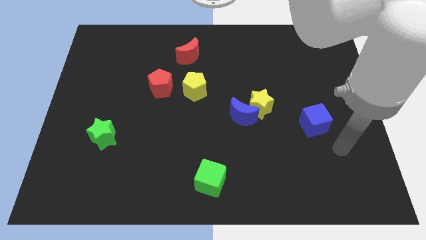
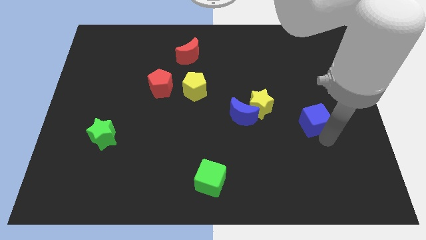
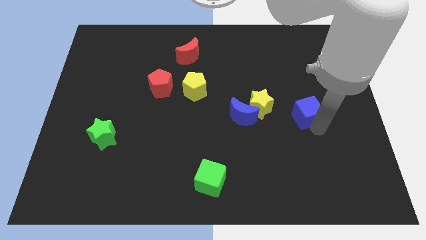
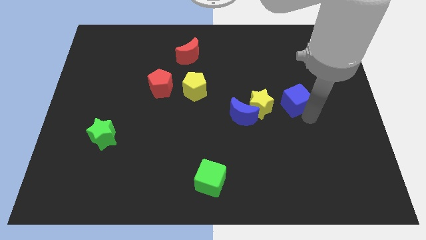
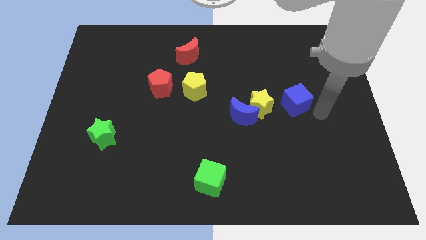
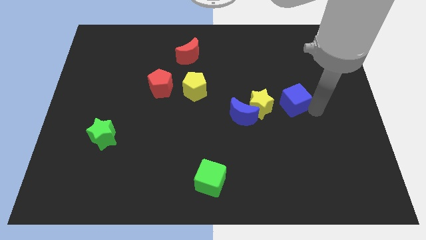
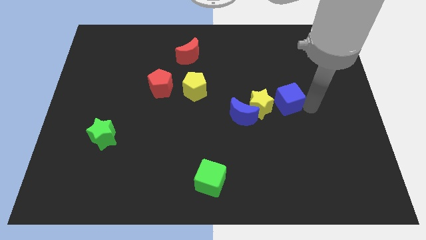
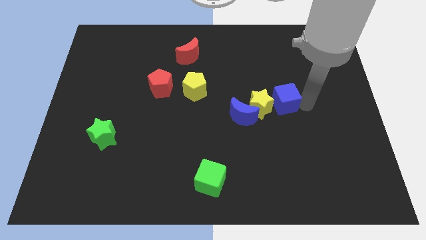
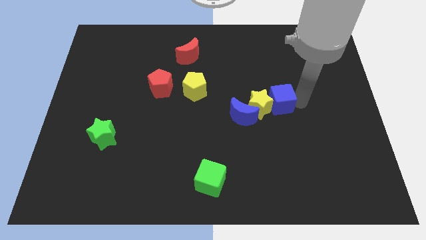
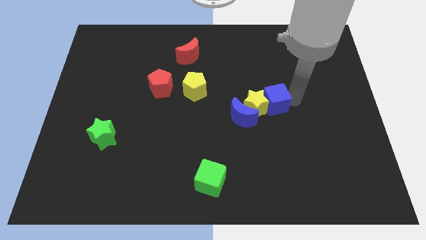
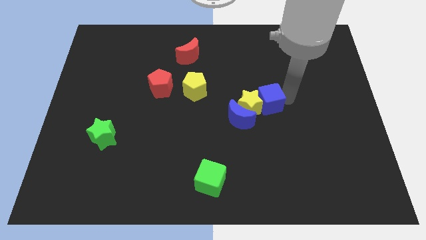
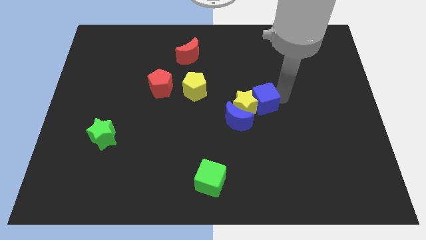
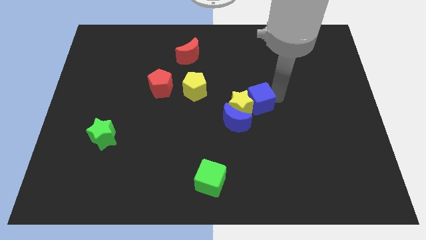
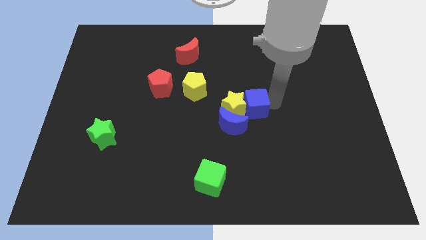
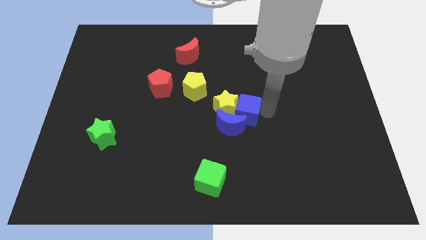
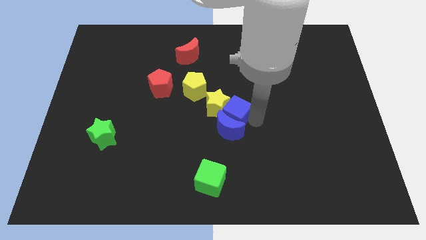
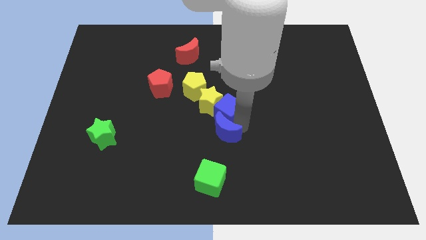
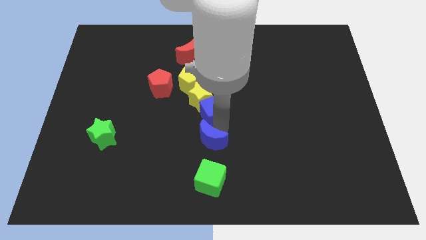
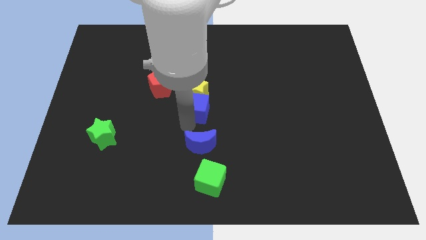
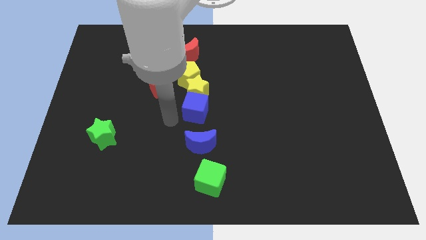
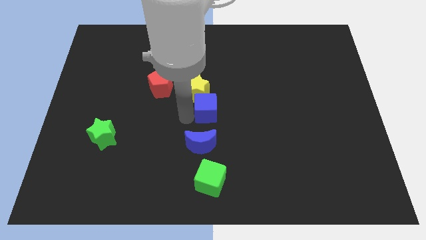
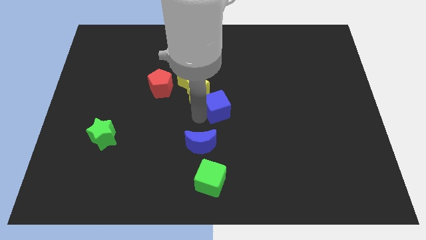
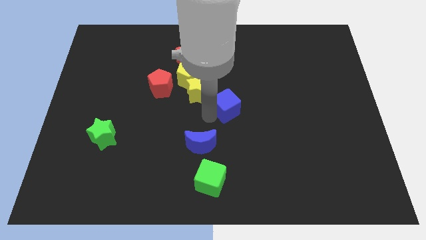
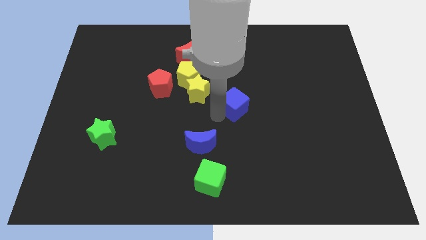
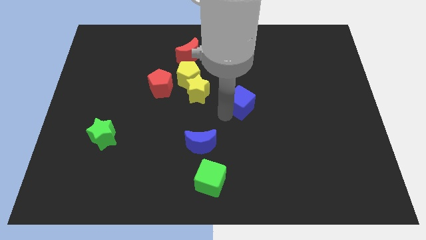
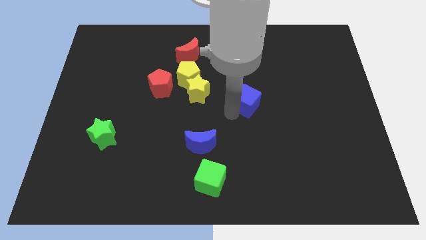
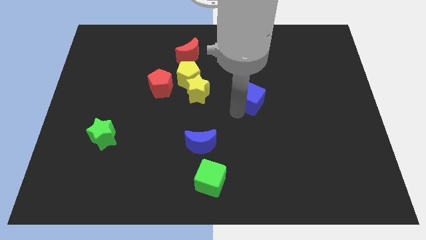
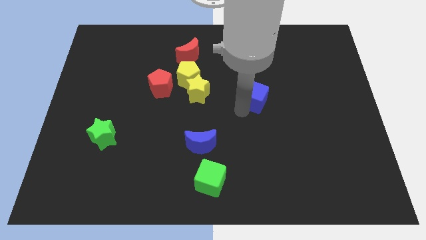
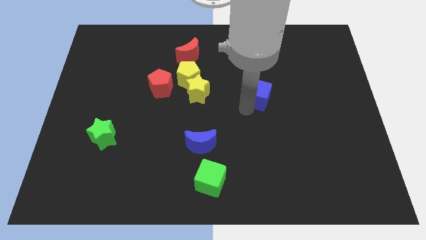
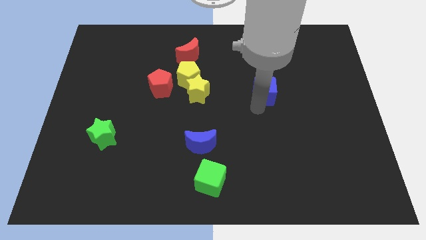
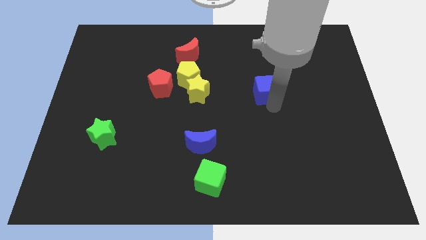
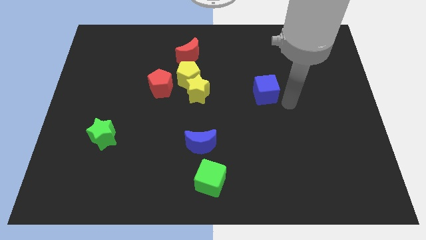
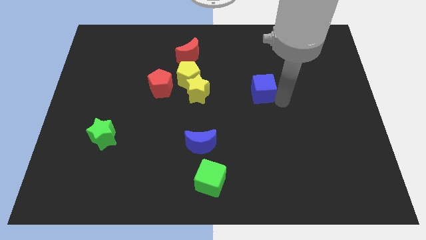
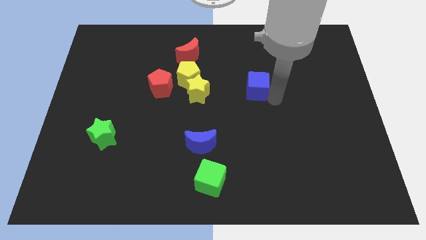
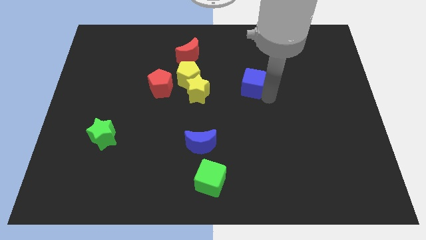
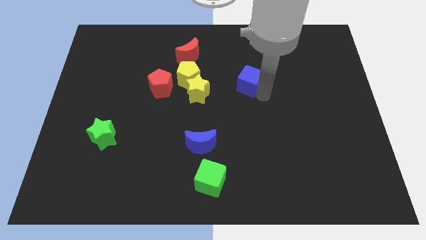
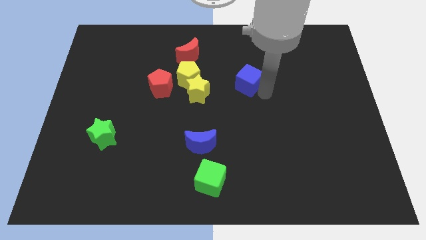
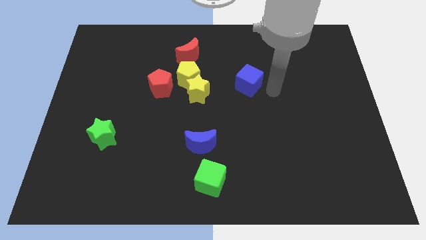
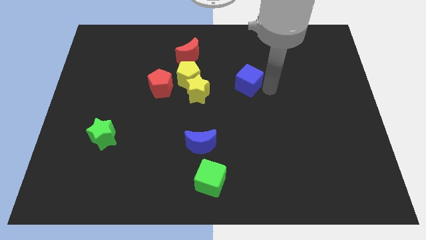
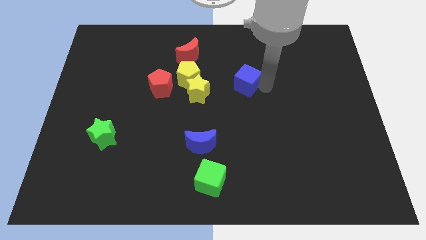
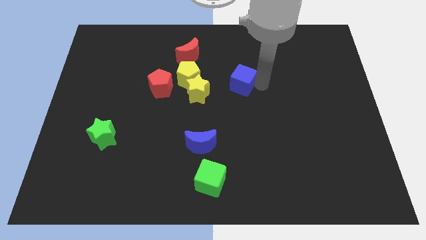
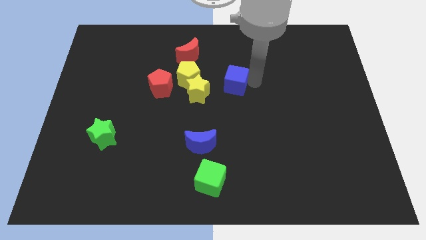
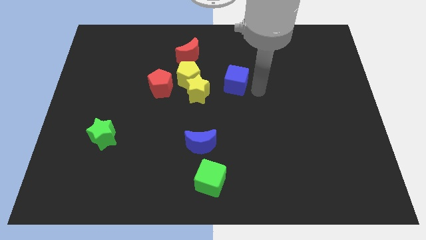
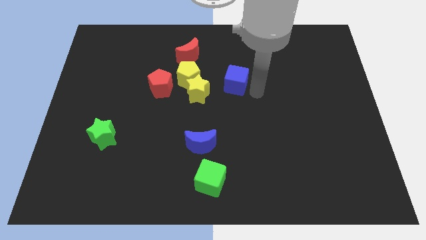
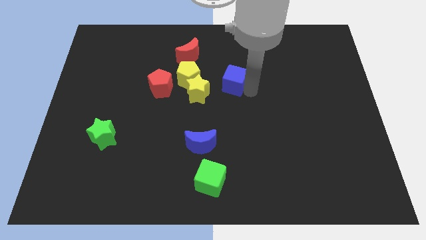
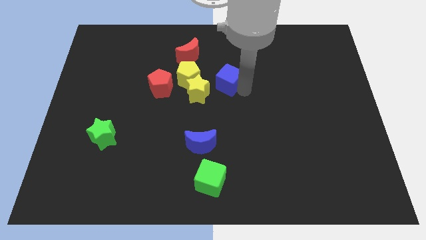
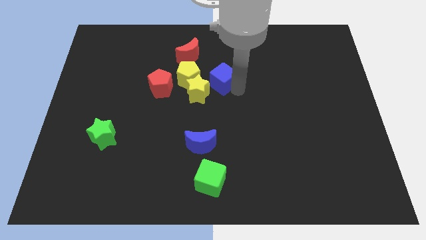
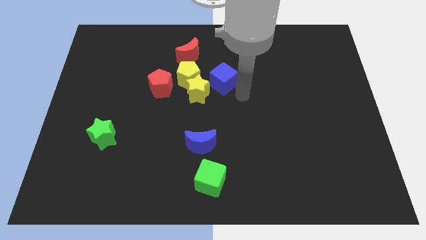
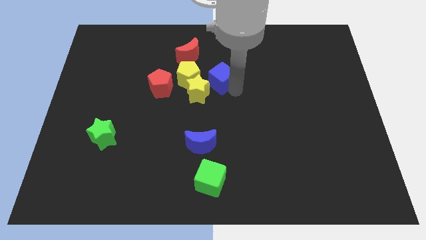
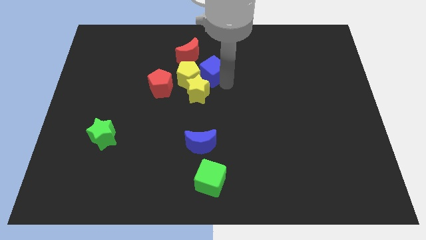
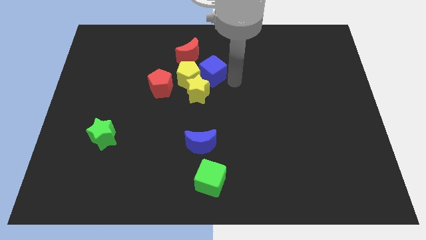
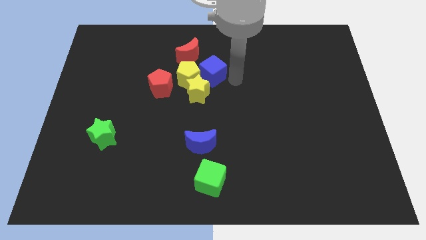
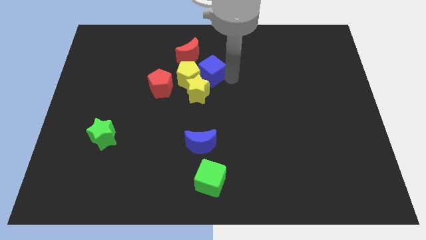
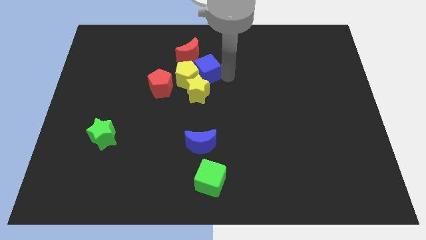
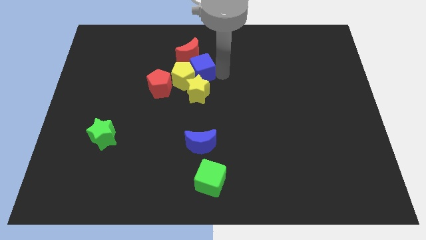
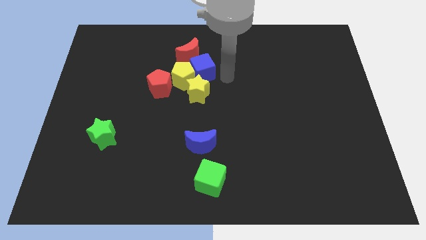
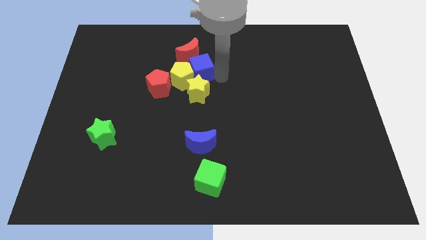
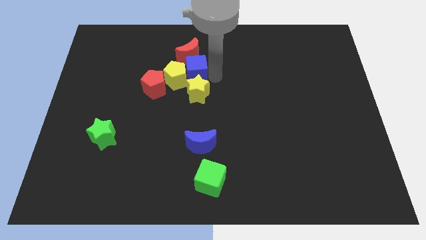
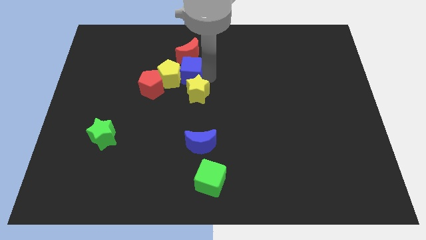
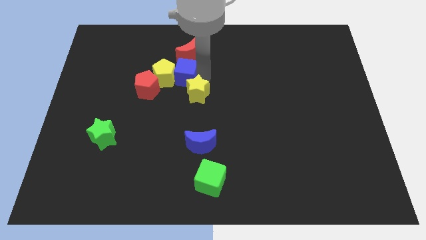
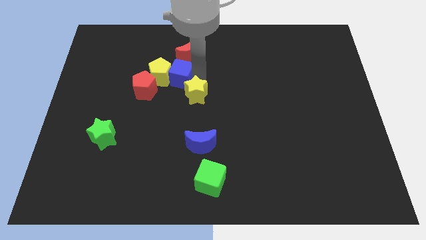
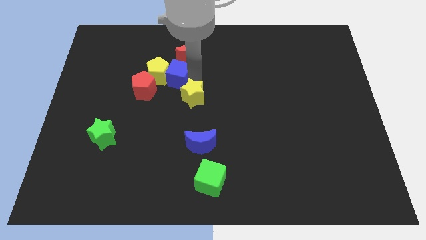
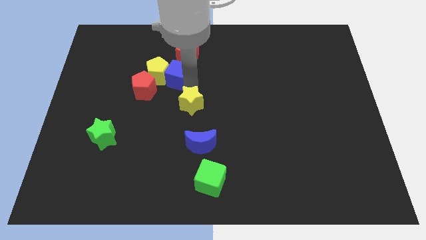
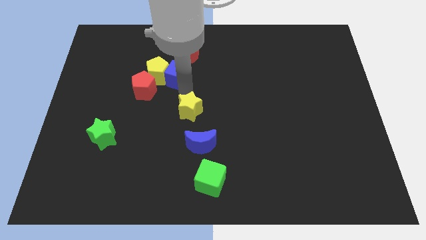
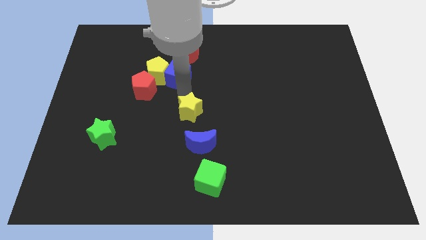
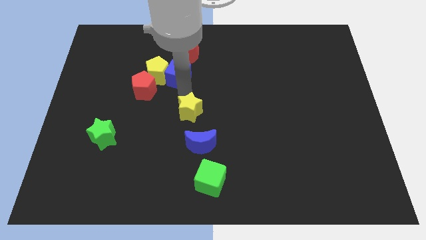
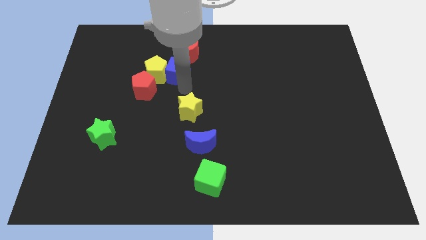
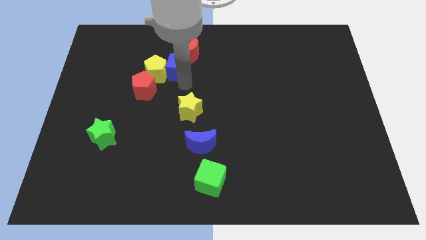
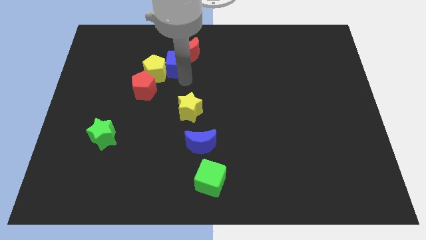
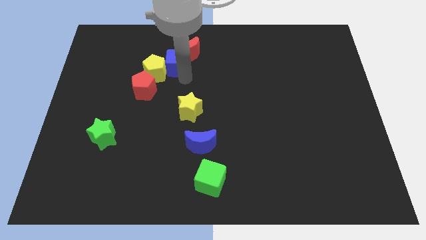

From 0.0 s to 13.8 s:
move the blue cube just left of the red moon

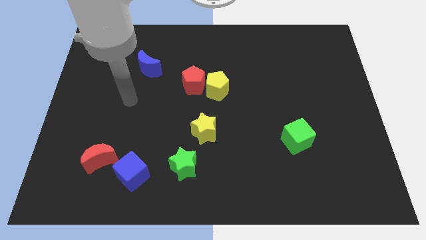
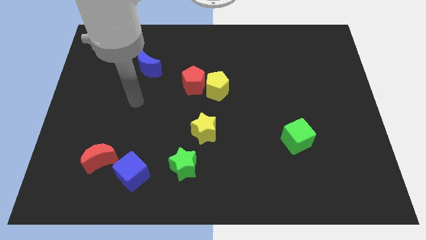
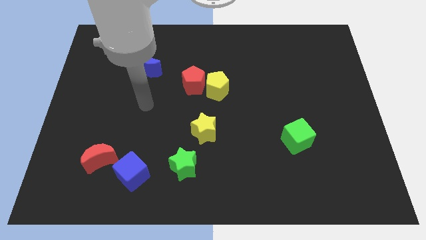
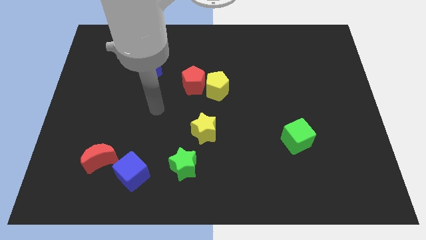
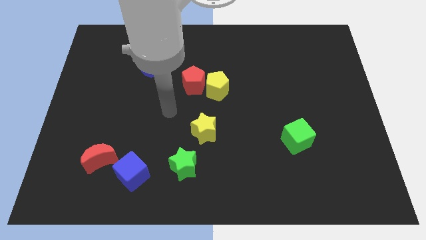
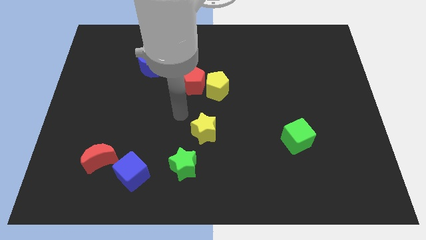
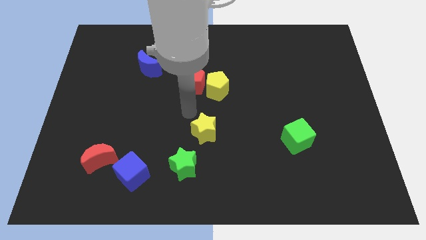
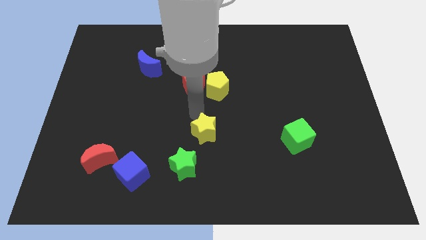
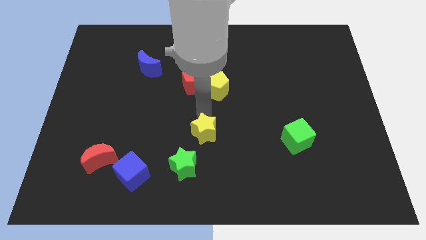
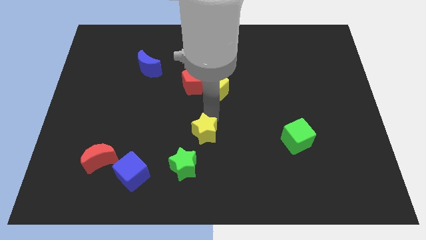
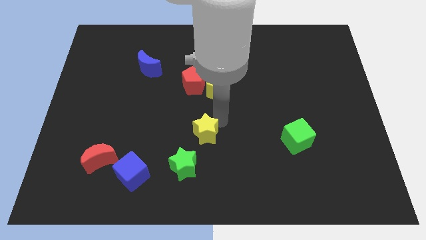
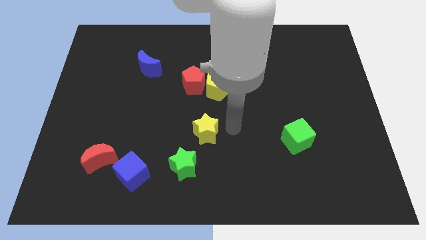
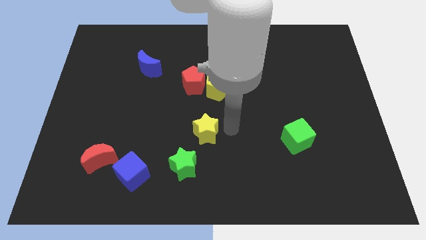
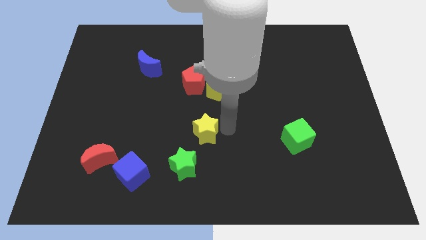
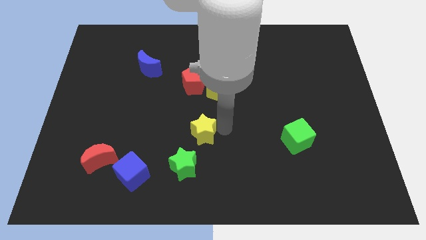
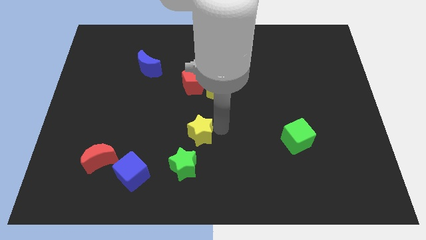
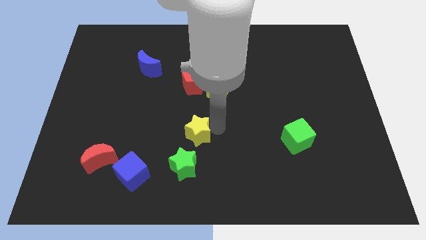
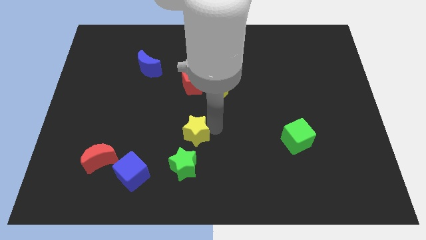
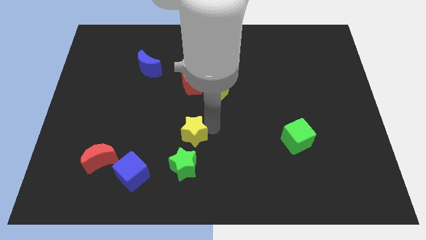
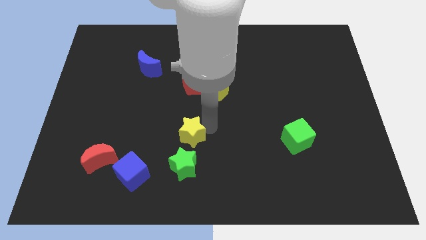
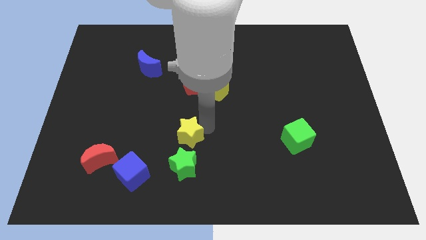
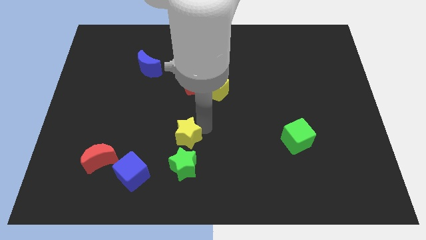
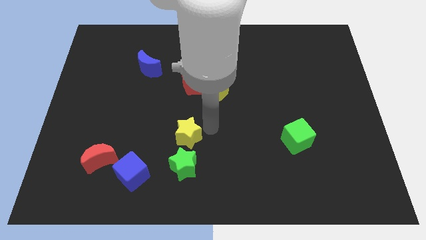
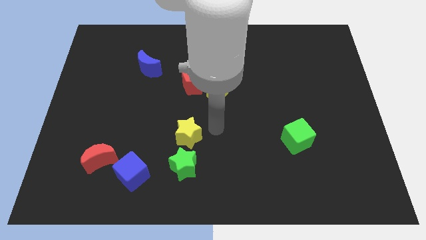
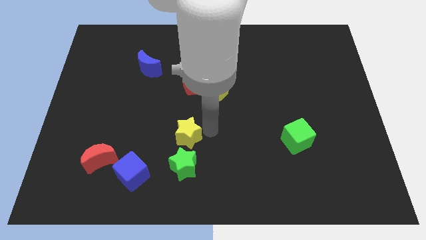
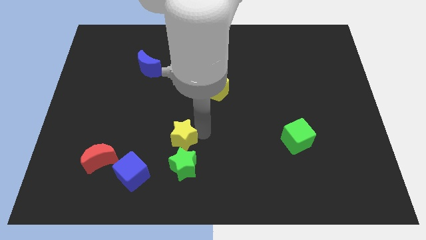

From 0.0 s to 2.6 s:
put the yellow star to the top left side of the green star
